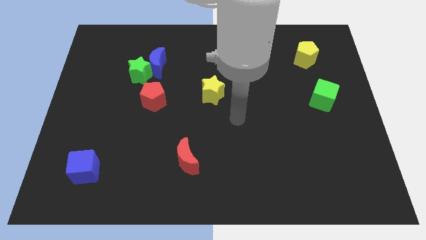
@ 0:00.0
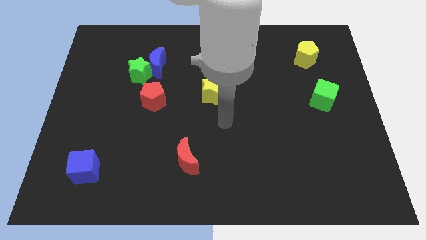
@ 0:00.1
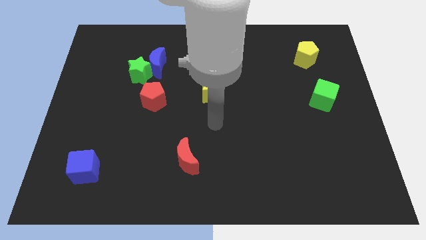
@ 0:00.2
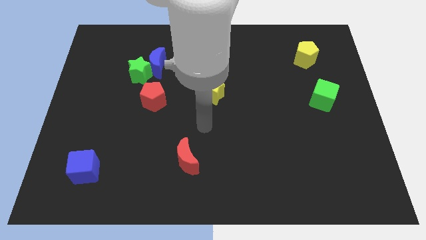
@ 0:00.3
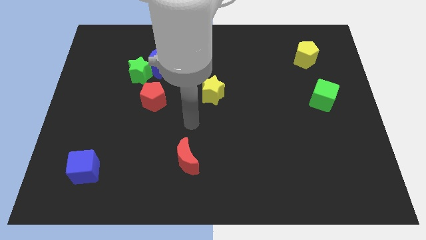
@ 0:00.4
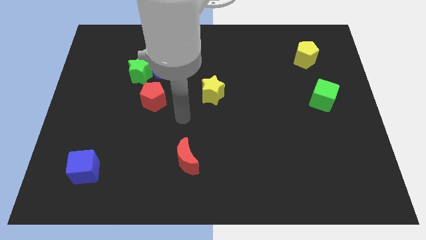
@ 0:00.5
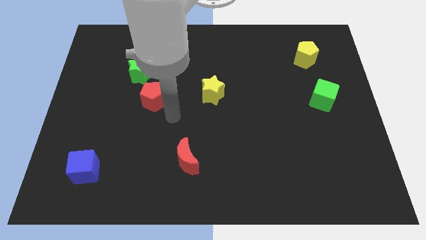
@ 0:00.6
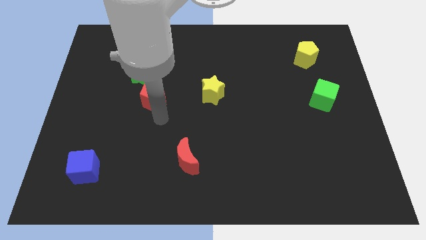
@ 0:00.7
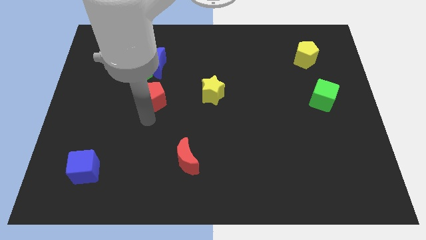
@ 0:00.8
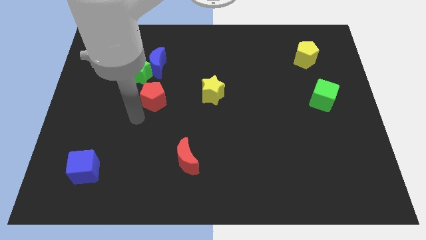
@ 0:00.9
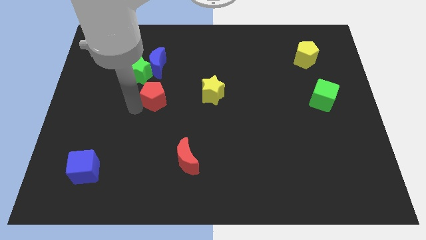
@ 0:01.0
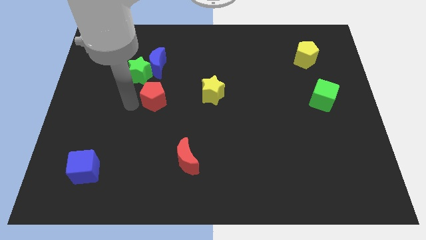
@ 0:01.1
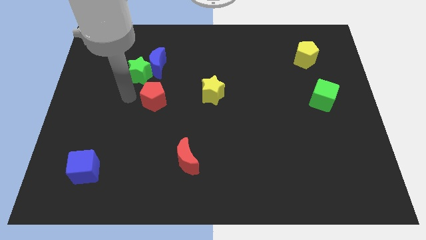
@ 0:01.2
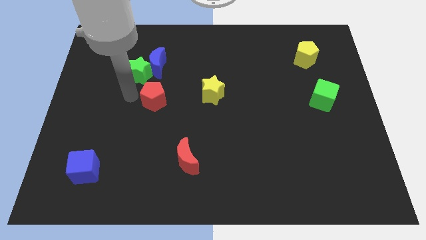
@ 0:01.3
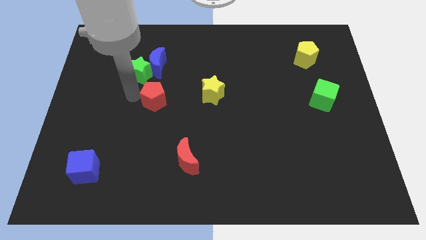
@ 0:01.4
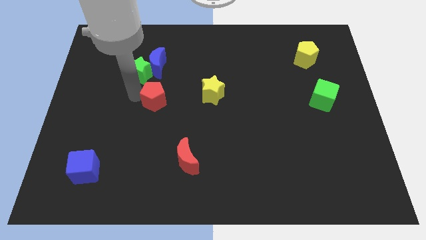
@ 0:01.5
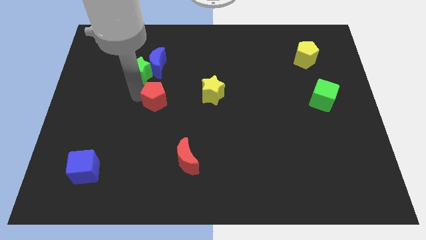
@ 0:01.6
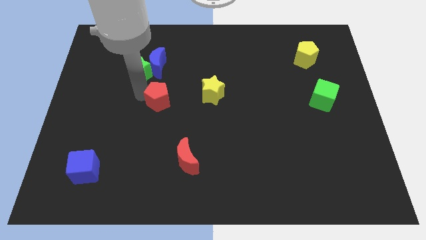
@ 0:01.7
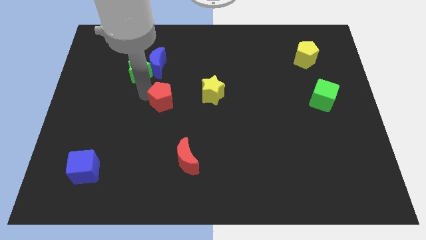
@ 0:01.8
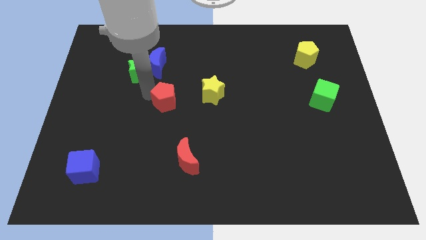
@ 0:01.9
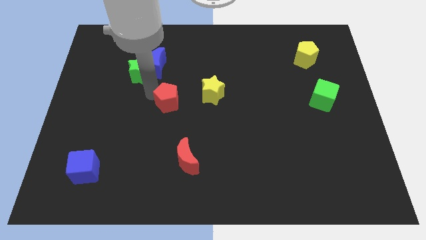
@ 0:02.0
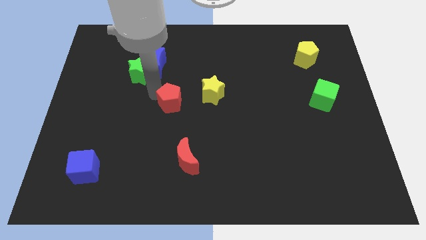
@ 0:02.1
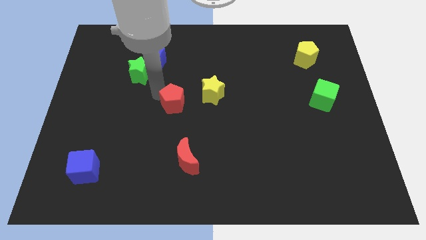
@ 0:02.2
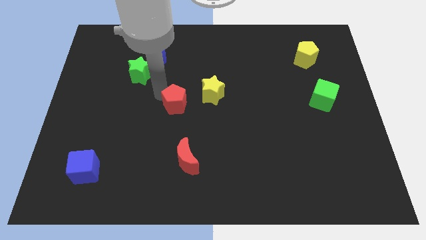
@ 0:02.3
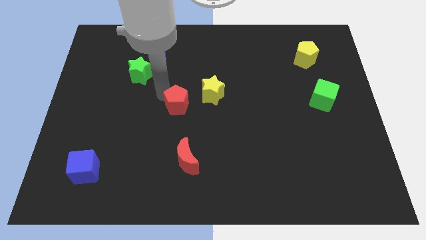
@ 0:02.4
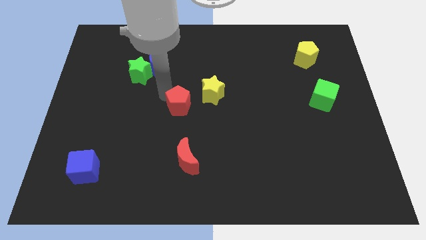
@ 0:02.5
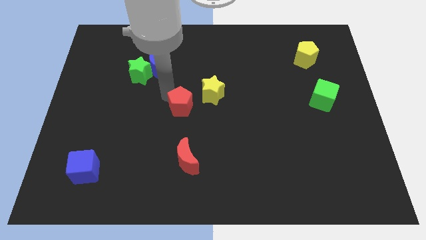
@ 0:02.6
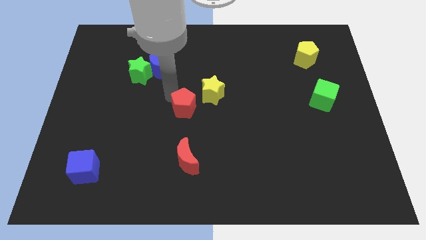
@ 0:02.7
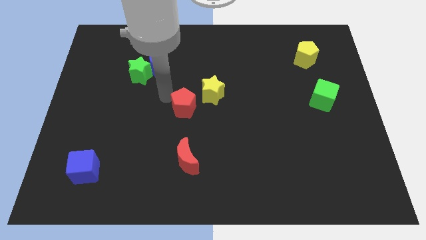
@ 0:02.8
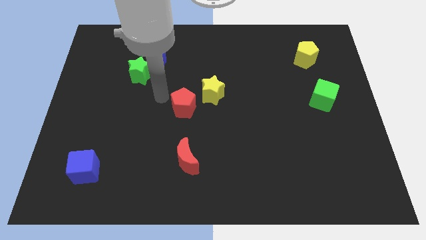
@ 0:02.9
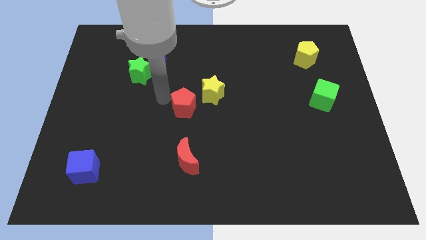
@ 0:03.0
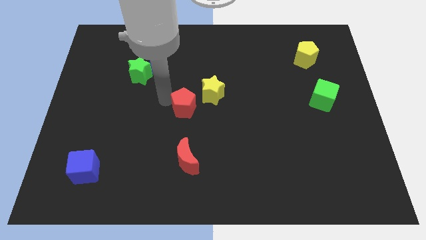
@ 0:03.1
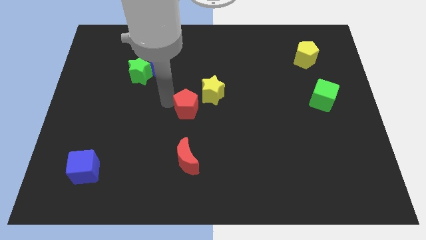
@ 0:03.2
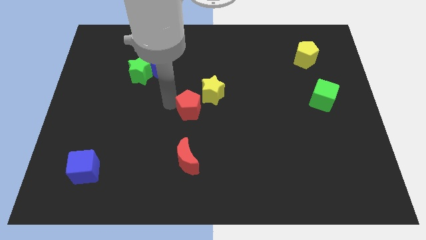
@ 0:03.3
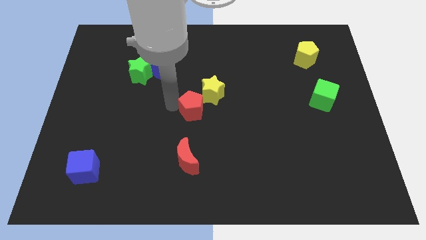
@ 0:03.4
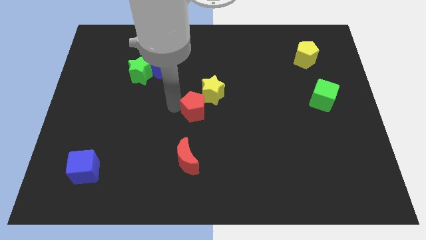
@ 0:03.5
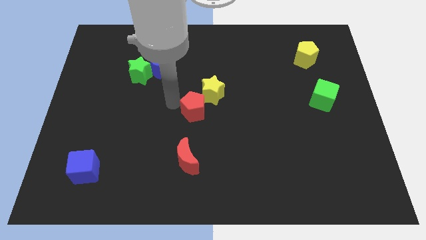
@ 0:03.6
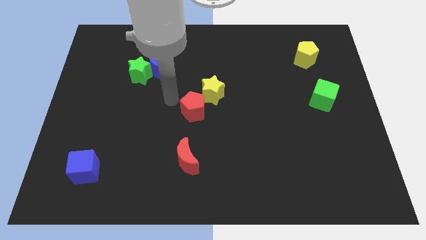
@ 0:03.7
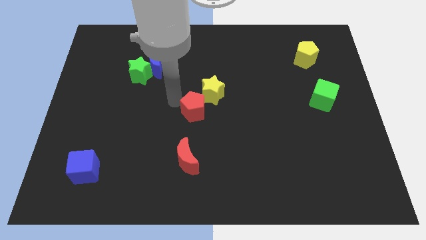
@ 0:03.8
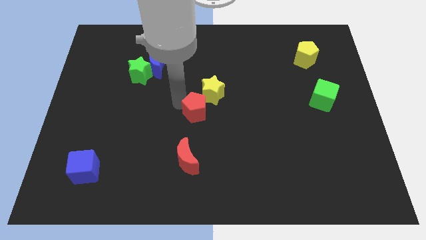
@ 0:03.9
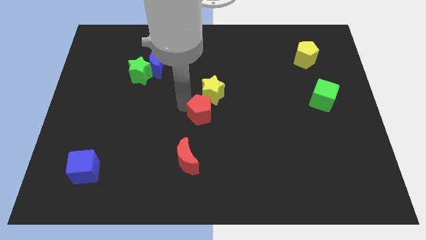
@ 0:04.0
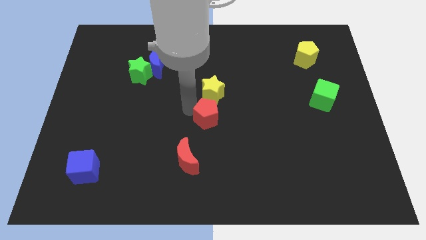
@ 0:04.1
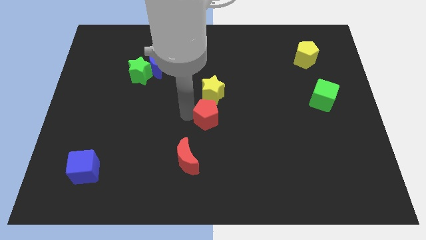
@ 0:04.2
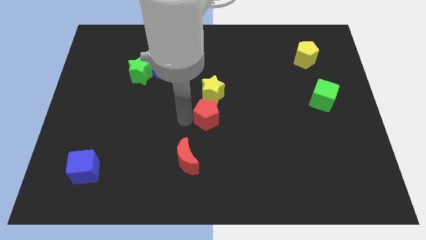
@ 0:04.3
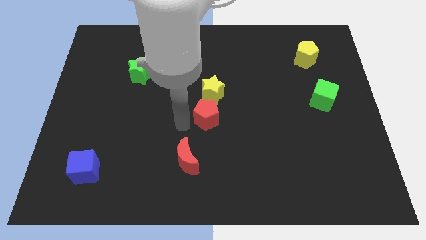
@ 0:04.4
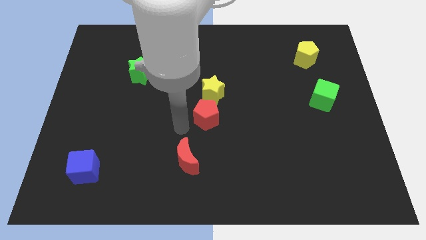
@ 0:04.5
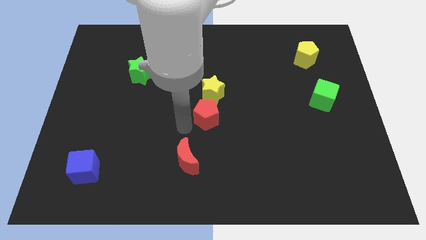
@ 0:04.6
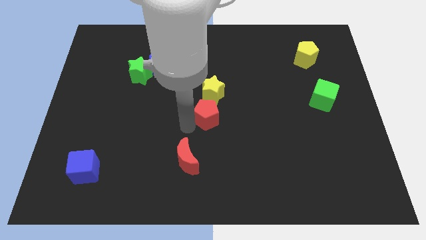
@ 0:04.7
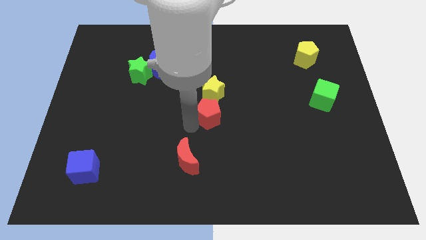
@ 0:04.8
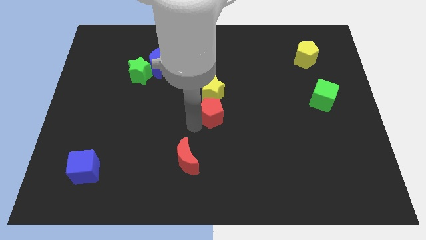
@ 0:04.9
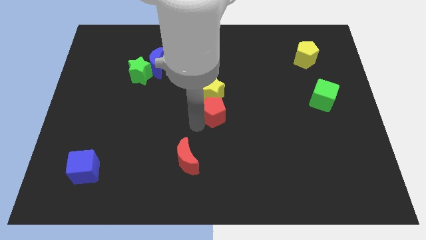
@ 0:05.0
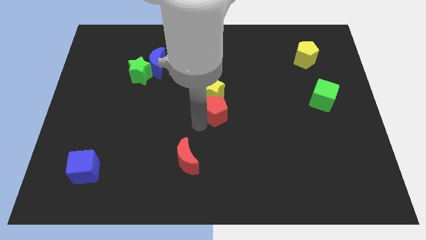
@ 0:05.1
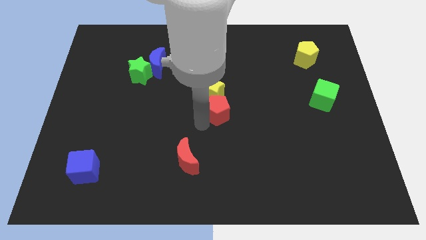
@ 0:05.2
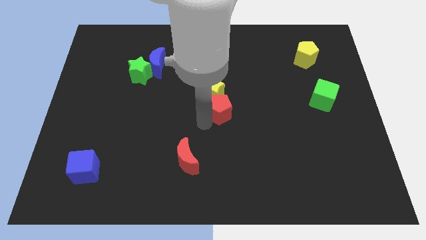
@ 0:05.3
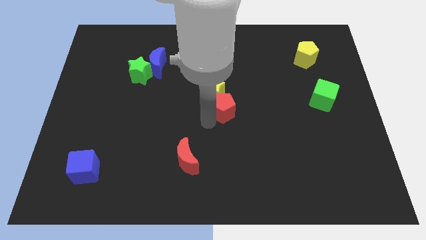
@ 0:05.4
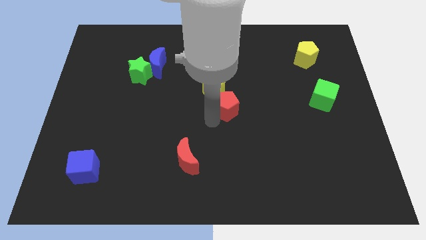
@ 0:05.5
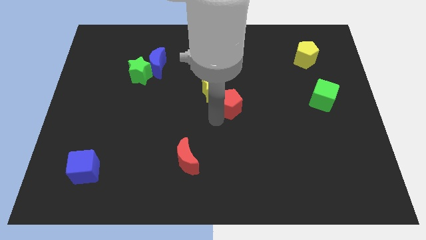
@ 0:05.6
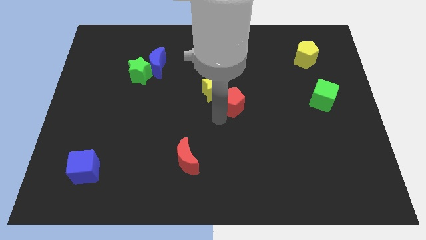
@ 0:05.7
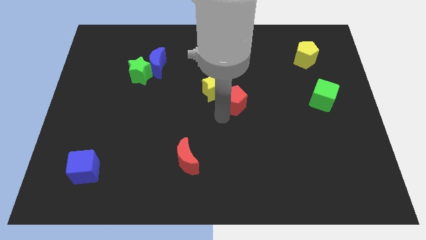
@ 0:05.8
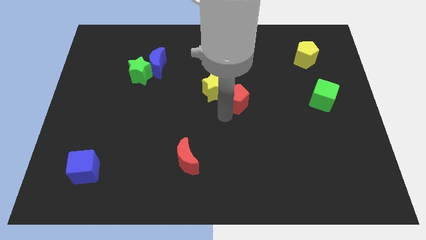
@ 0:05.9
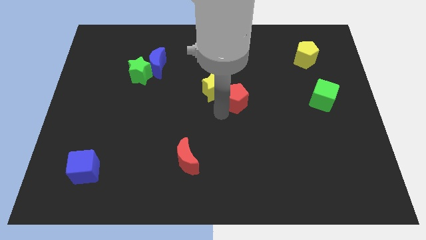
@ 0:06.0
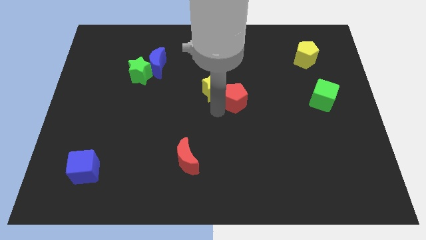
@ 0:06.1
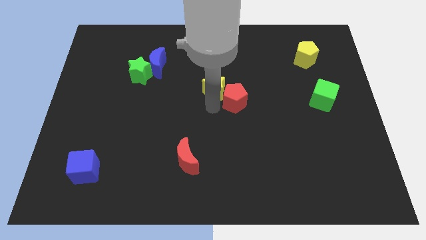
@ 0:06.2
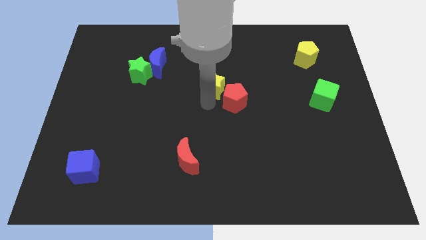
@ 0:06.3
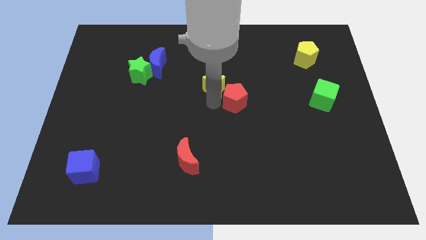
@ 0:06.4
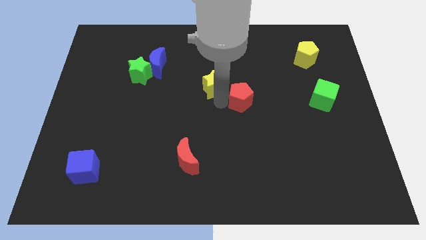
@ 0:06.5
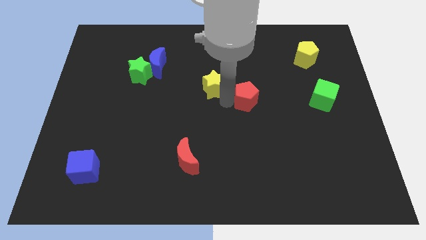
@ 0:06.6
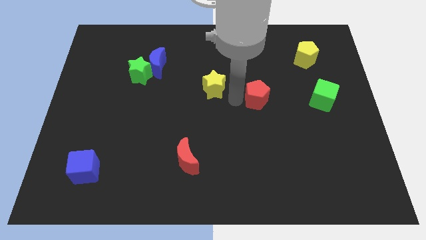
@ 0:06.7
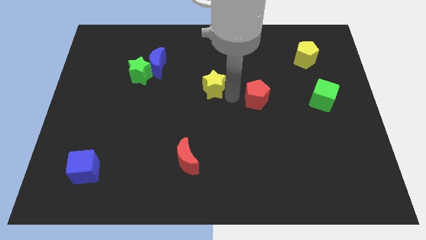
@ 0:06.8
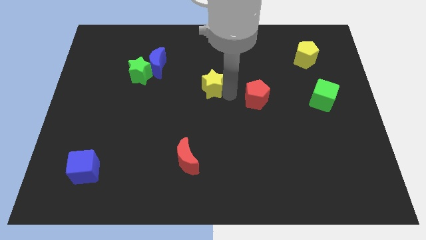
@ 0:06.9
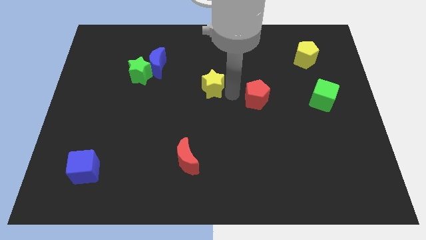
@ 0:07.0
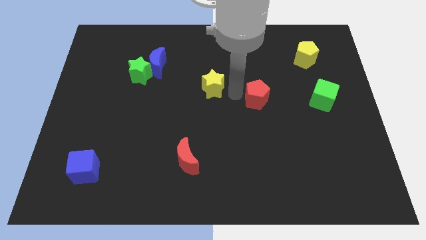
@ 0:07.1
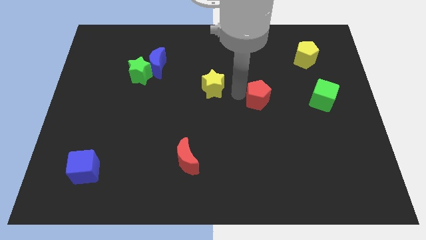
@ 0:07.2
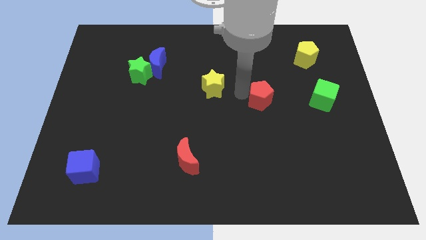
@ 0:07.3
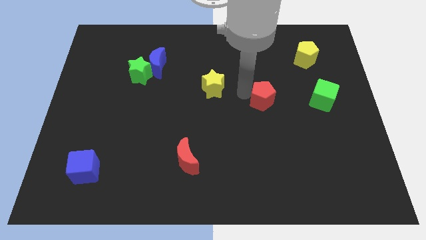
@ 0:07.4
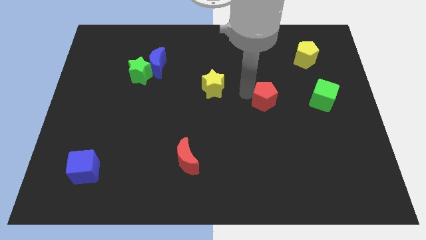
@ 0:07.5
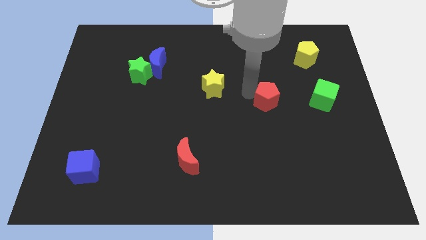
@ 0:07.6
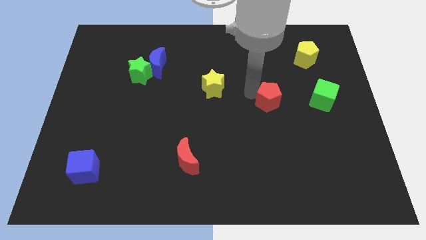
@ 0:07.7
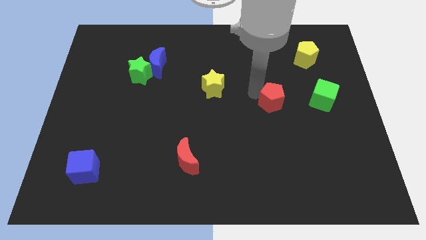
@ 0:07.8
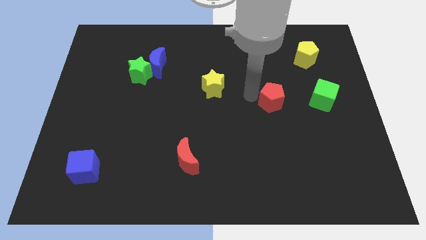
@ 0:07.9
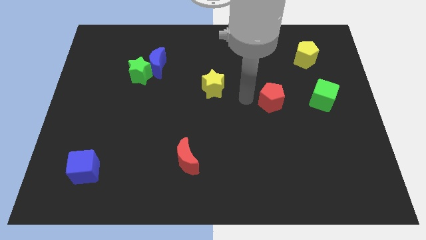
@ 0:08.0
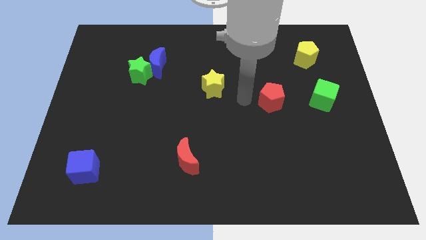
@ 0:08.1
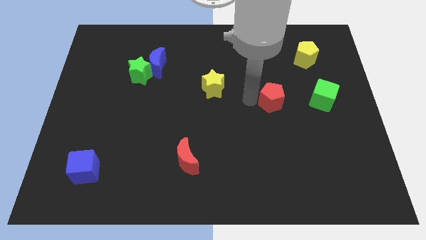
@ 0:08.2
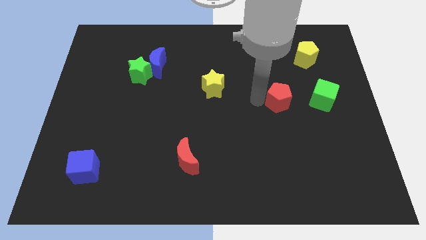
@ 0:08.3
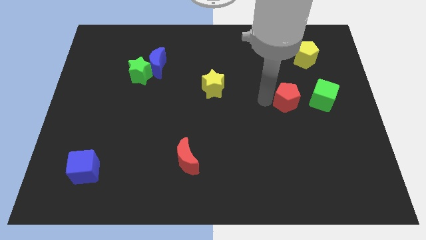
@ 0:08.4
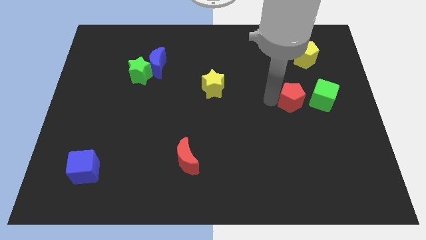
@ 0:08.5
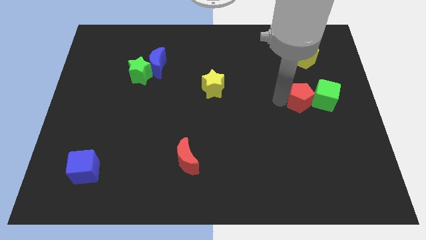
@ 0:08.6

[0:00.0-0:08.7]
push the red pentagon towards the green cube
